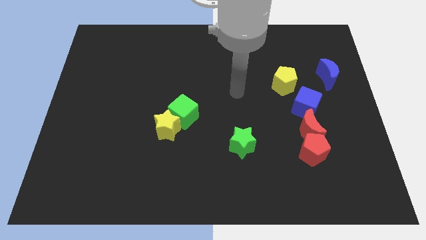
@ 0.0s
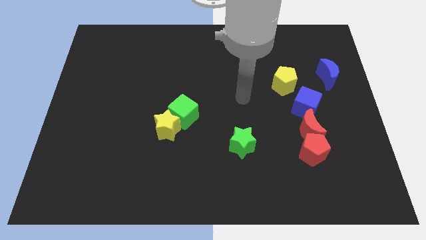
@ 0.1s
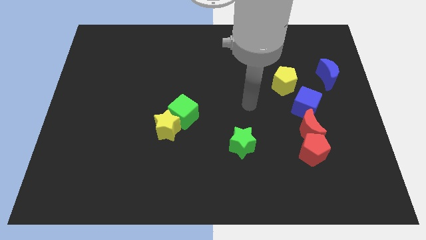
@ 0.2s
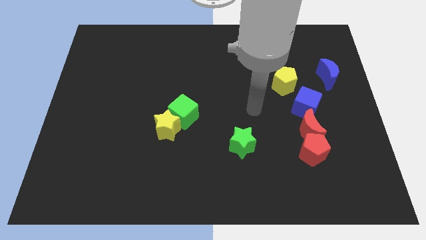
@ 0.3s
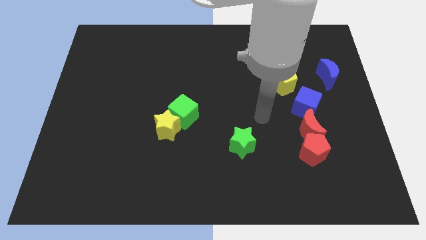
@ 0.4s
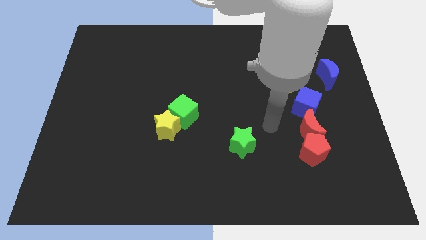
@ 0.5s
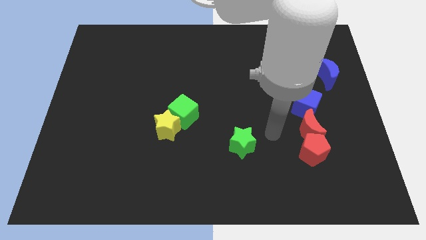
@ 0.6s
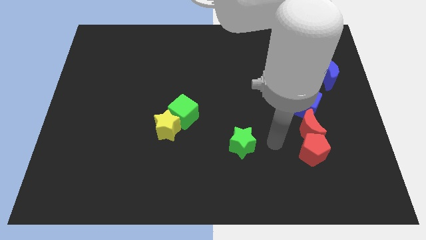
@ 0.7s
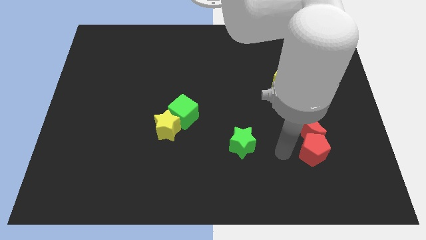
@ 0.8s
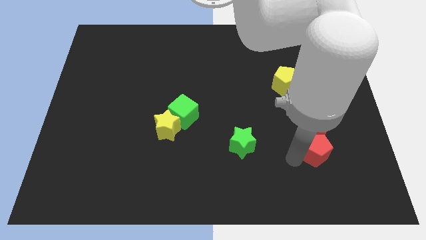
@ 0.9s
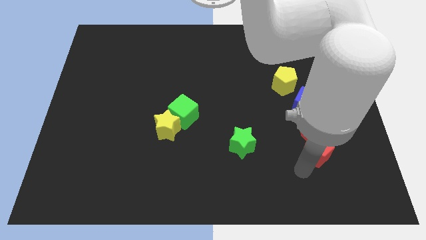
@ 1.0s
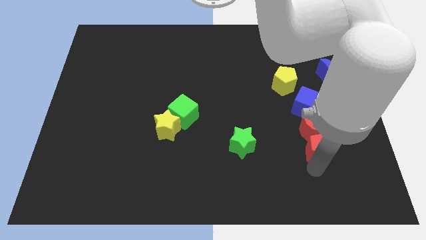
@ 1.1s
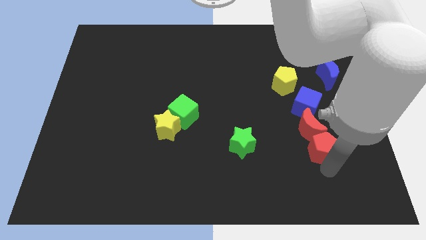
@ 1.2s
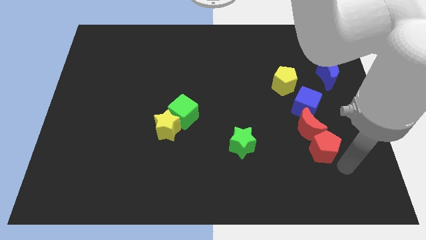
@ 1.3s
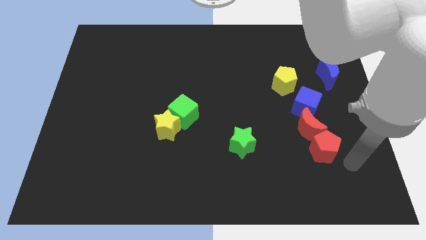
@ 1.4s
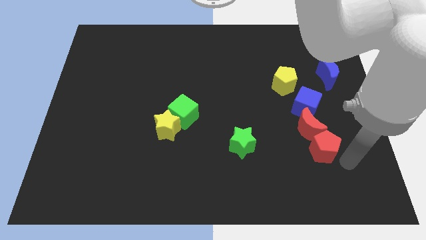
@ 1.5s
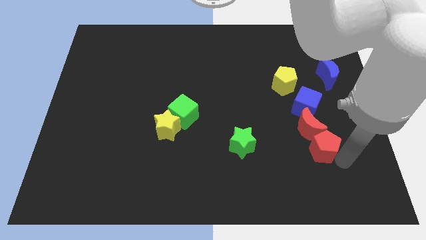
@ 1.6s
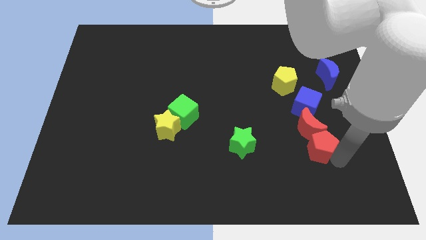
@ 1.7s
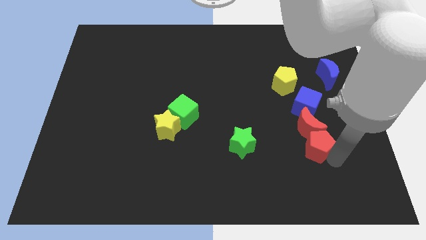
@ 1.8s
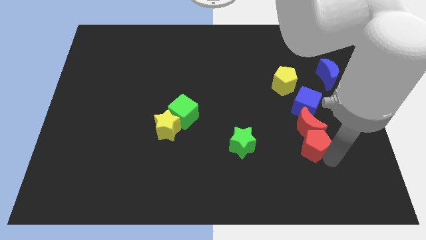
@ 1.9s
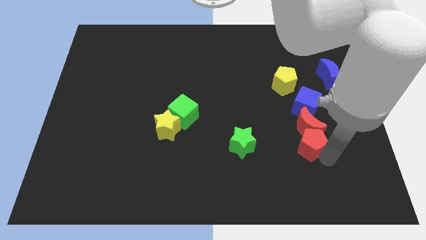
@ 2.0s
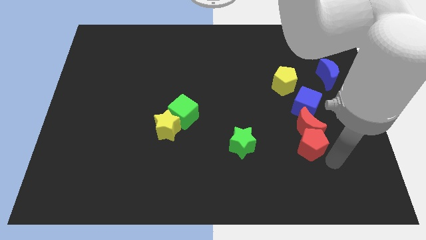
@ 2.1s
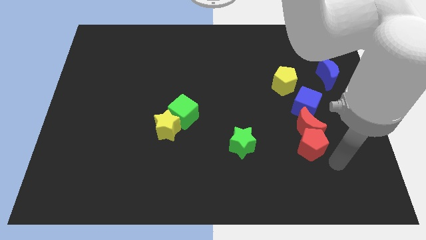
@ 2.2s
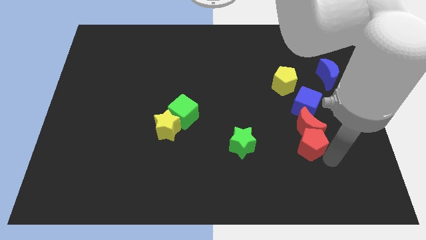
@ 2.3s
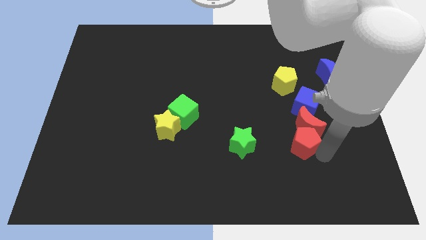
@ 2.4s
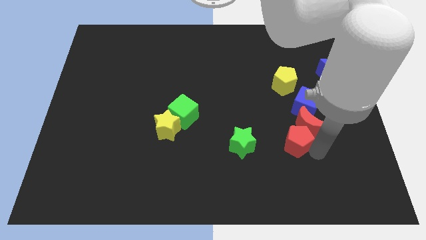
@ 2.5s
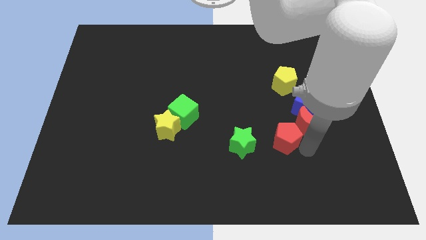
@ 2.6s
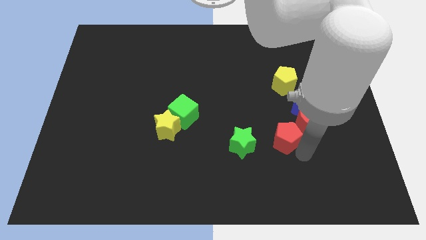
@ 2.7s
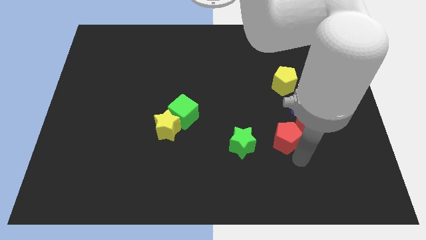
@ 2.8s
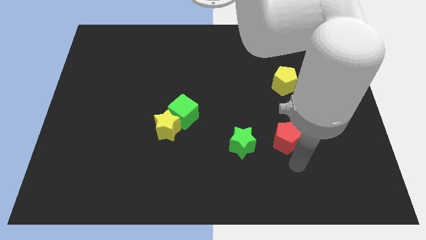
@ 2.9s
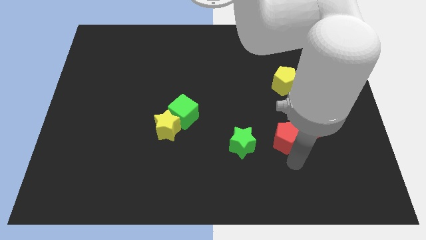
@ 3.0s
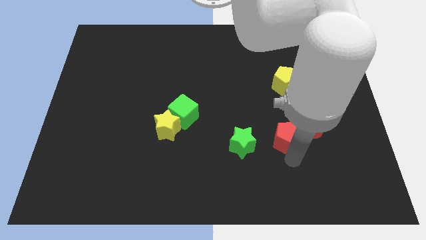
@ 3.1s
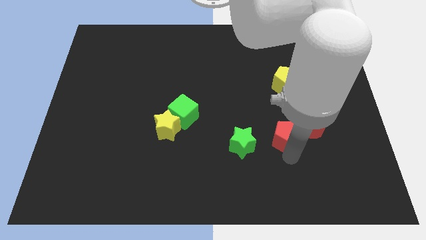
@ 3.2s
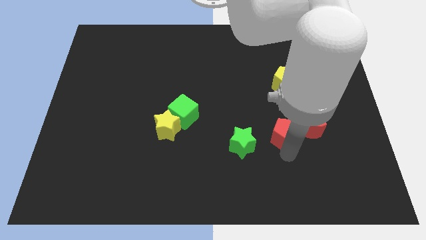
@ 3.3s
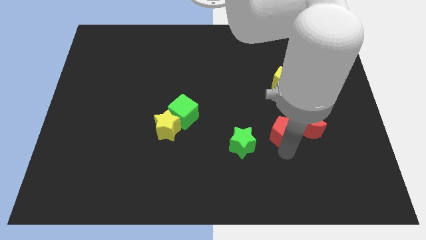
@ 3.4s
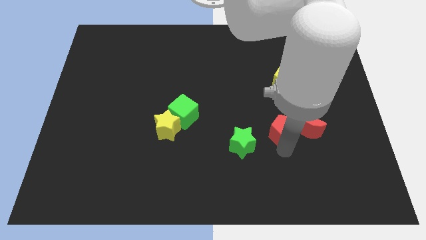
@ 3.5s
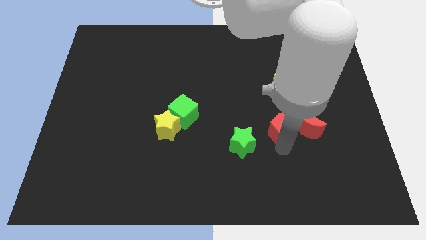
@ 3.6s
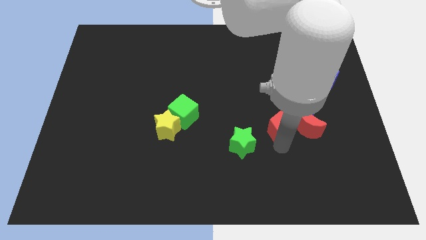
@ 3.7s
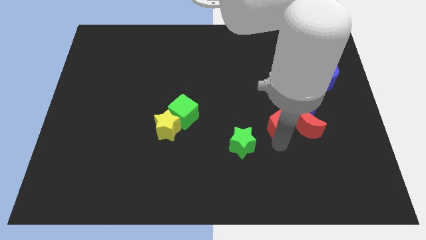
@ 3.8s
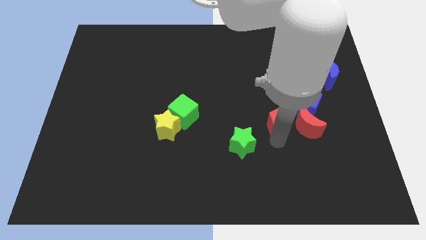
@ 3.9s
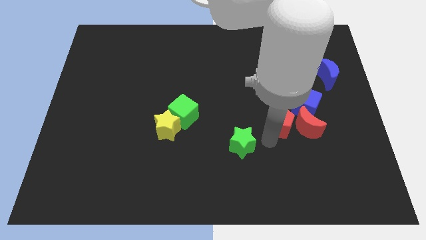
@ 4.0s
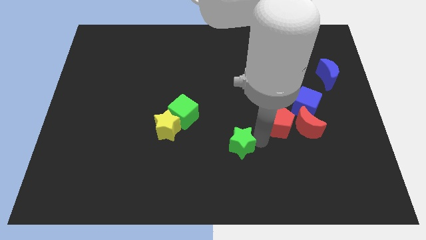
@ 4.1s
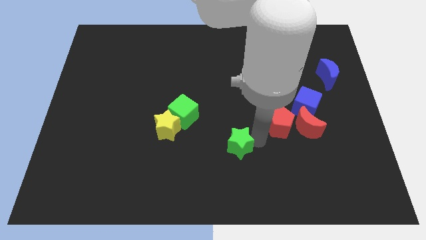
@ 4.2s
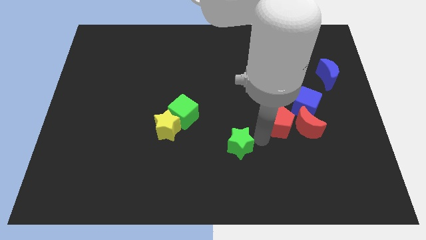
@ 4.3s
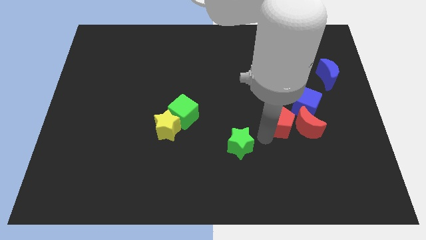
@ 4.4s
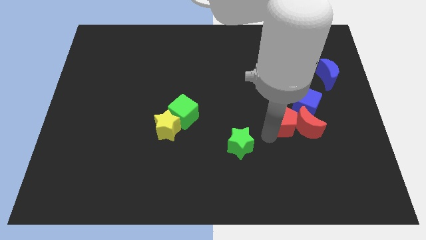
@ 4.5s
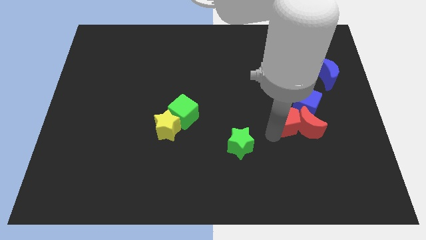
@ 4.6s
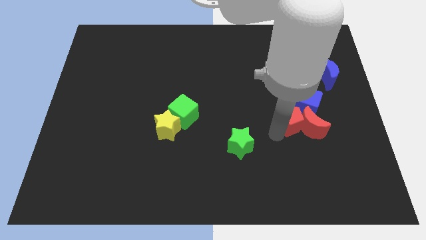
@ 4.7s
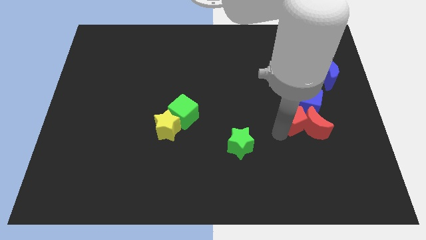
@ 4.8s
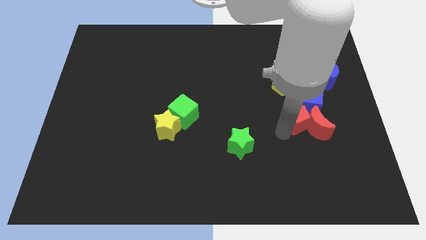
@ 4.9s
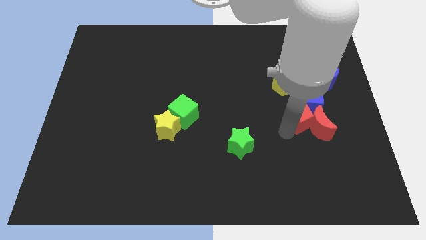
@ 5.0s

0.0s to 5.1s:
push the red pentagon close to the blue cube

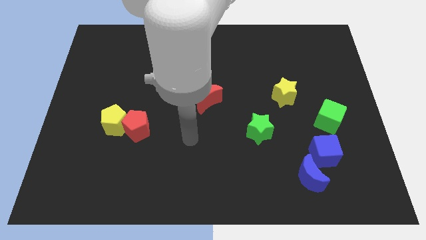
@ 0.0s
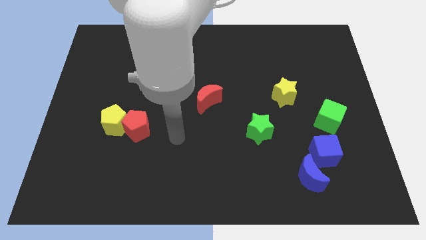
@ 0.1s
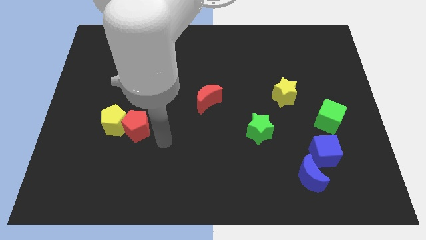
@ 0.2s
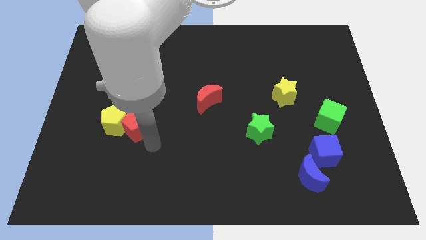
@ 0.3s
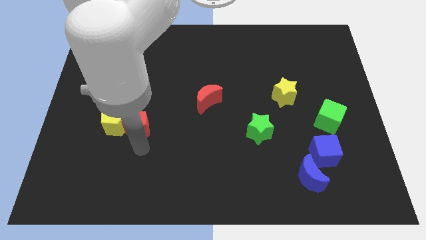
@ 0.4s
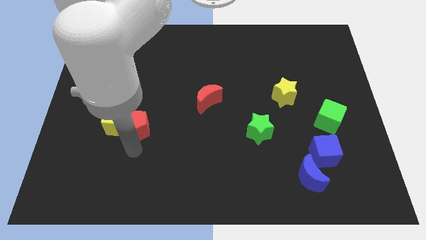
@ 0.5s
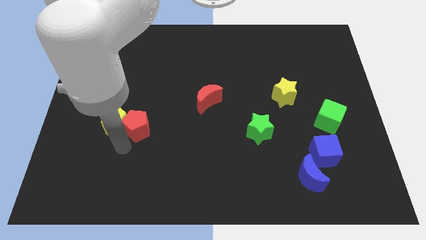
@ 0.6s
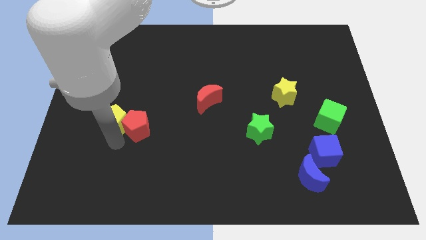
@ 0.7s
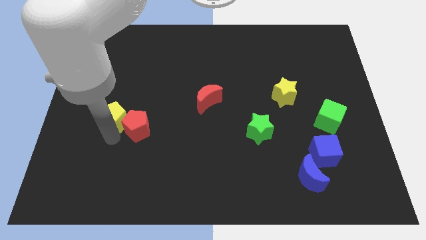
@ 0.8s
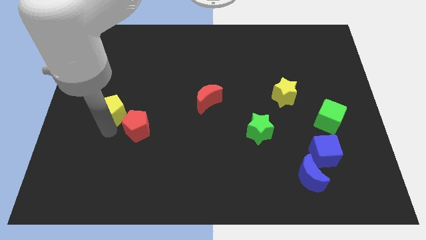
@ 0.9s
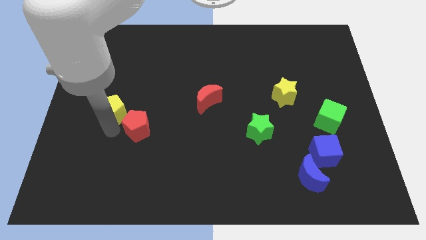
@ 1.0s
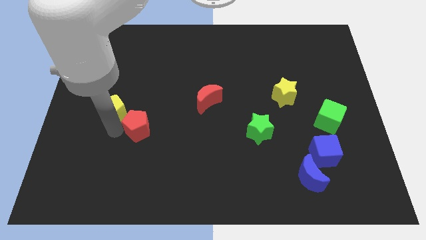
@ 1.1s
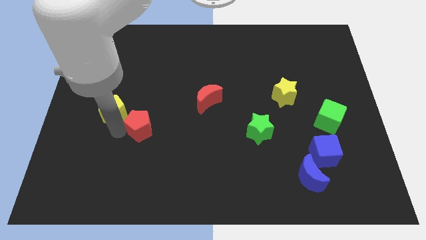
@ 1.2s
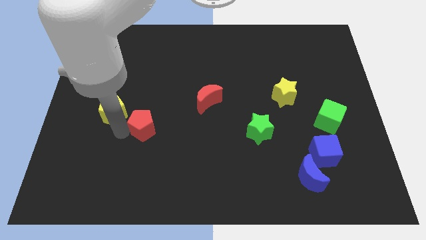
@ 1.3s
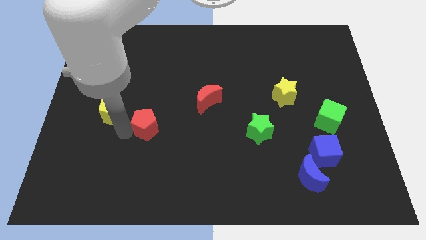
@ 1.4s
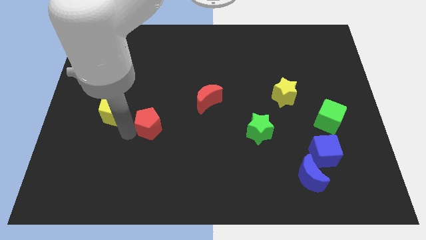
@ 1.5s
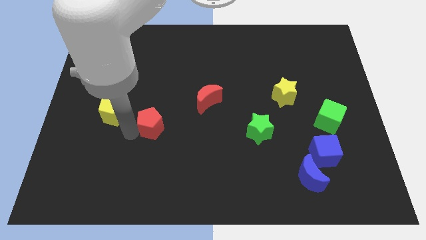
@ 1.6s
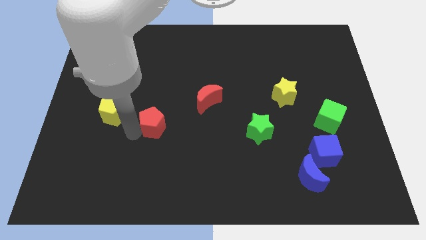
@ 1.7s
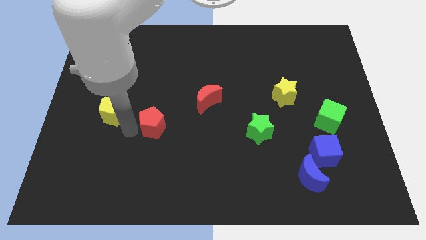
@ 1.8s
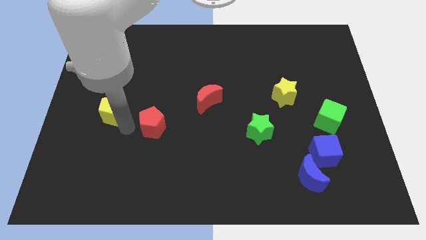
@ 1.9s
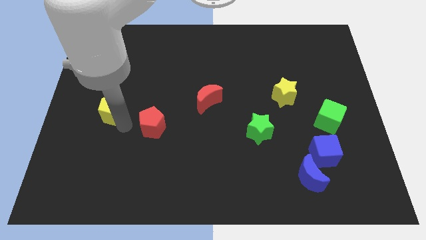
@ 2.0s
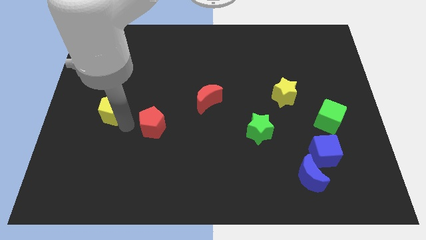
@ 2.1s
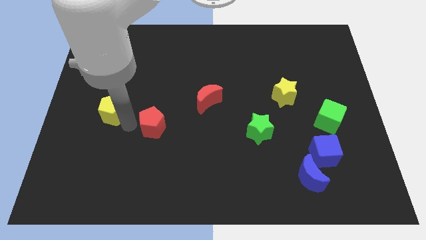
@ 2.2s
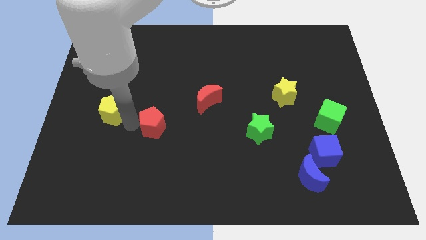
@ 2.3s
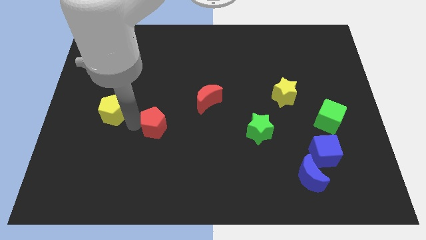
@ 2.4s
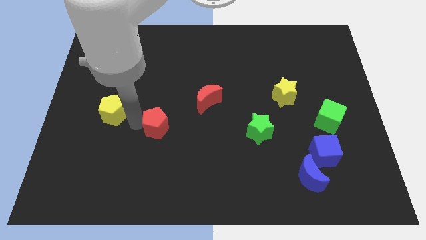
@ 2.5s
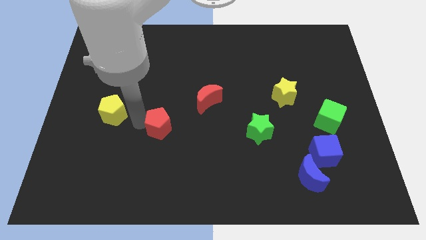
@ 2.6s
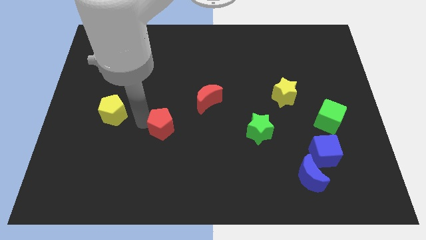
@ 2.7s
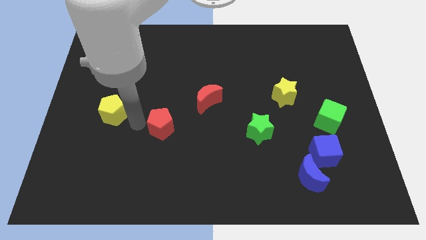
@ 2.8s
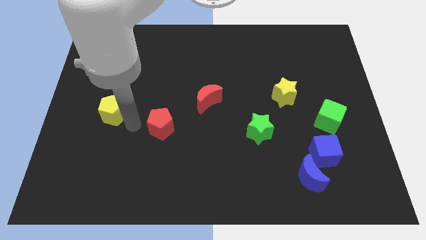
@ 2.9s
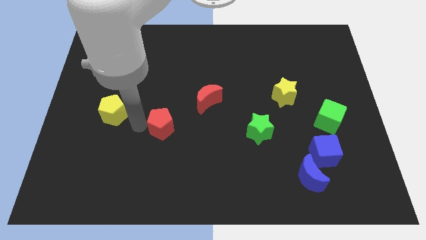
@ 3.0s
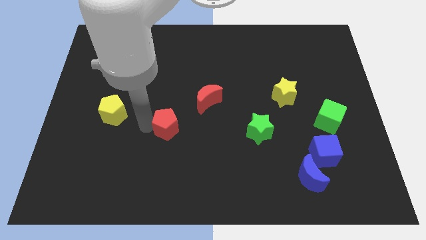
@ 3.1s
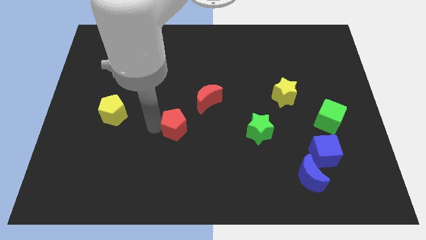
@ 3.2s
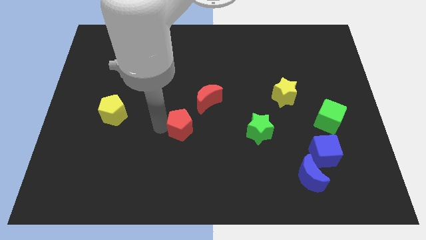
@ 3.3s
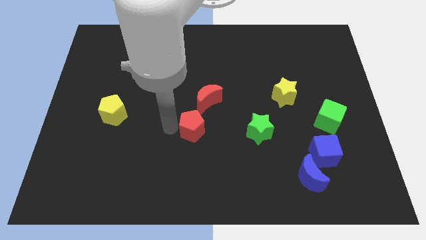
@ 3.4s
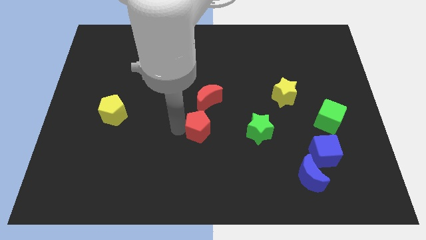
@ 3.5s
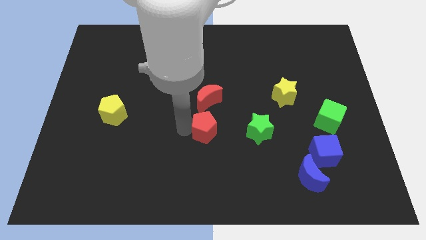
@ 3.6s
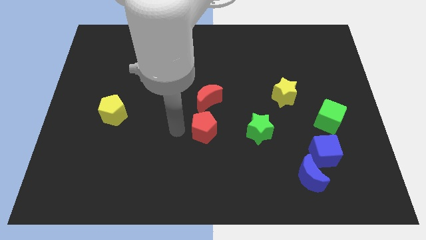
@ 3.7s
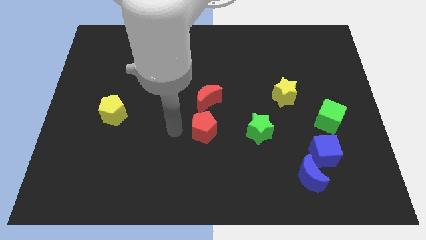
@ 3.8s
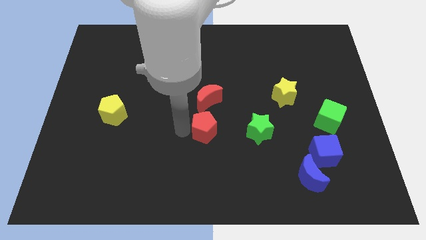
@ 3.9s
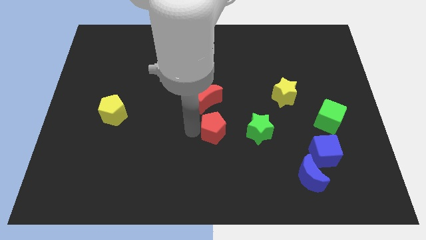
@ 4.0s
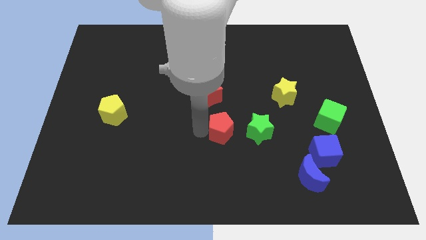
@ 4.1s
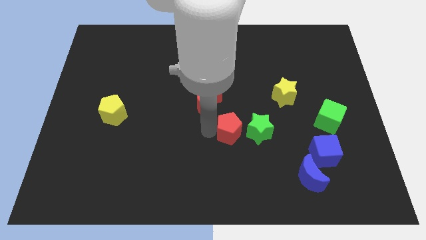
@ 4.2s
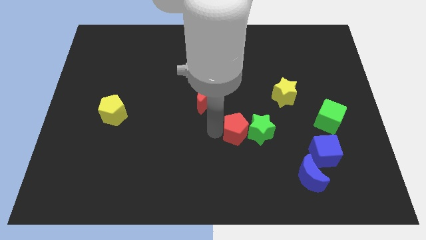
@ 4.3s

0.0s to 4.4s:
move the red pentagon towards the green star
